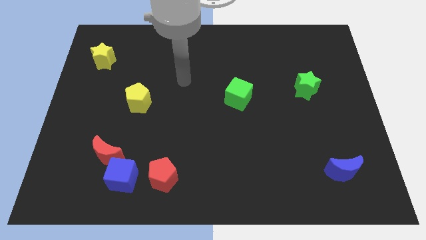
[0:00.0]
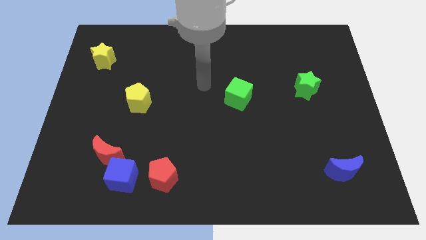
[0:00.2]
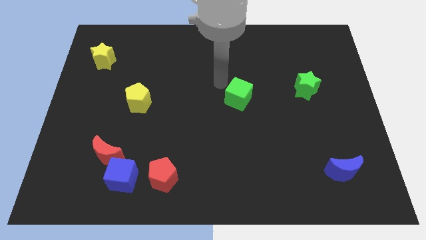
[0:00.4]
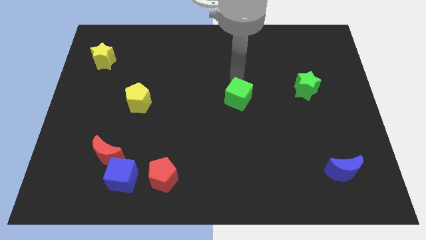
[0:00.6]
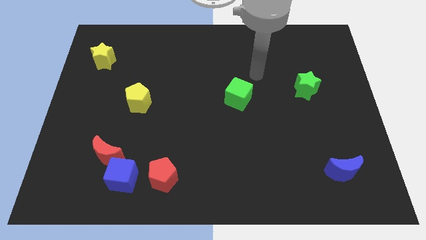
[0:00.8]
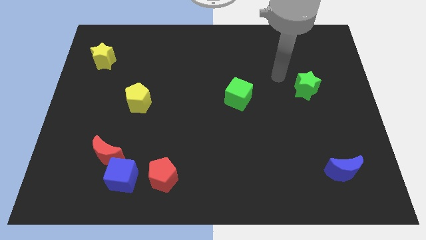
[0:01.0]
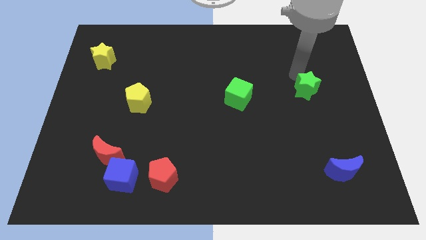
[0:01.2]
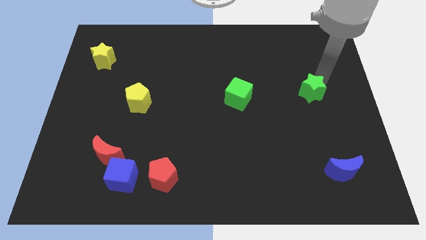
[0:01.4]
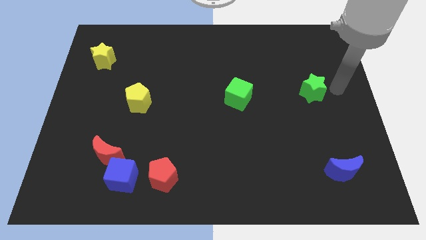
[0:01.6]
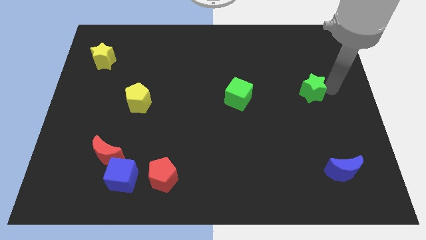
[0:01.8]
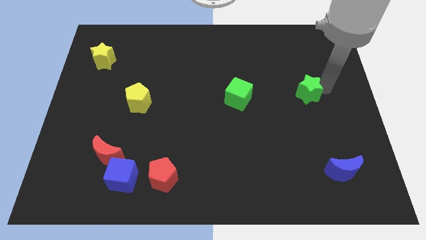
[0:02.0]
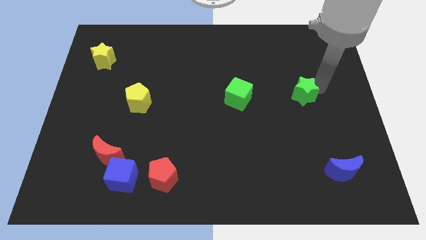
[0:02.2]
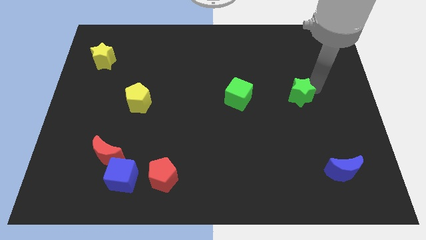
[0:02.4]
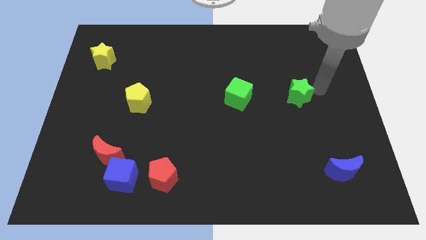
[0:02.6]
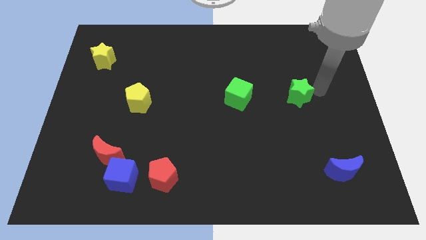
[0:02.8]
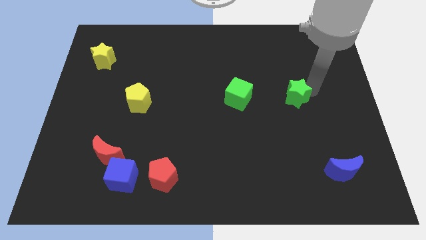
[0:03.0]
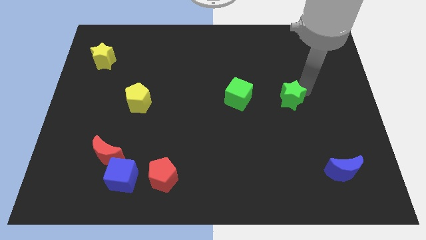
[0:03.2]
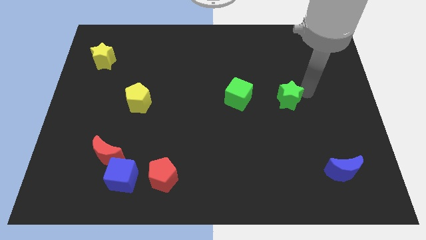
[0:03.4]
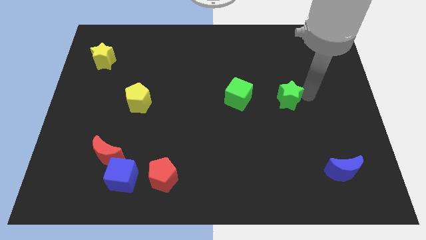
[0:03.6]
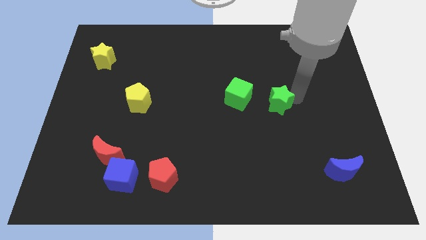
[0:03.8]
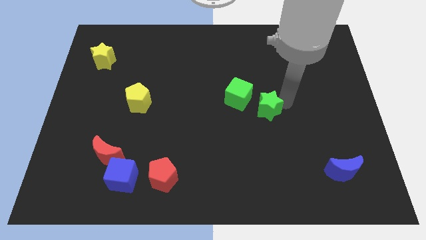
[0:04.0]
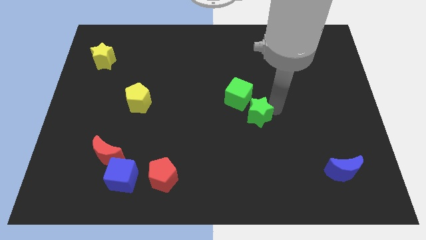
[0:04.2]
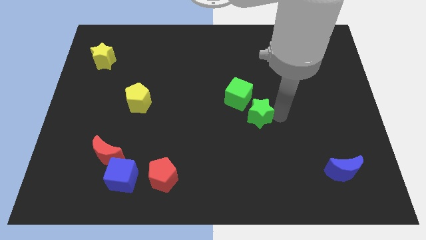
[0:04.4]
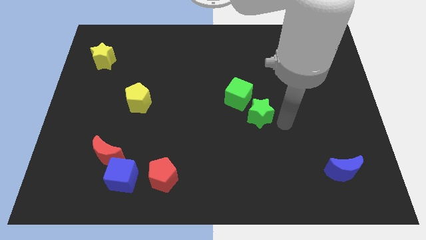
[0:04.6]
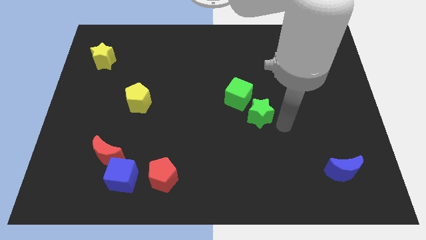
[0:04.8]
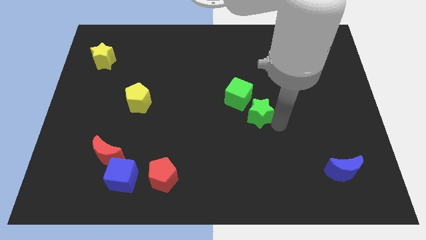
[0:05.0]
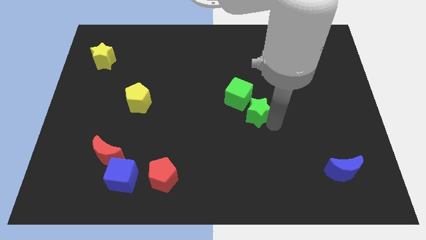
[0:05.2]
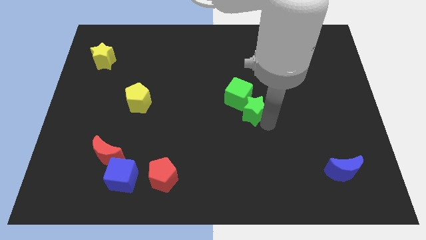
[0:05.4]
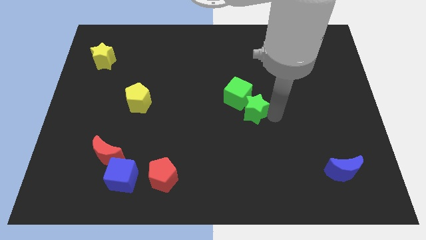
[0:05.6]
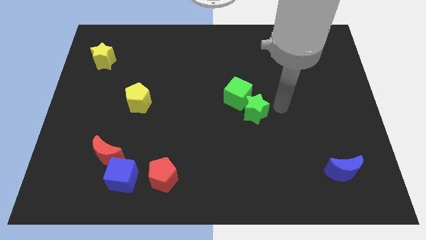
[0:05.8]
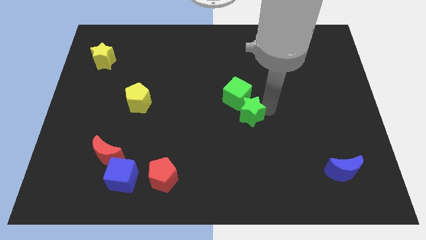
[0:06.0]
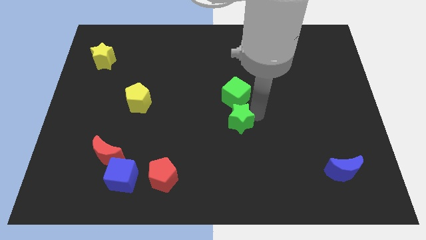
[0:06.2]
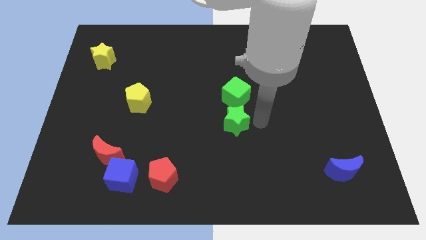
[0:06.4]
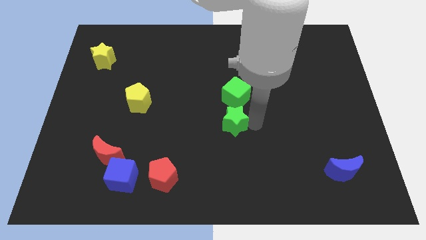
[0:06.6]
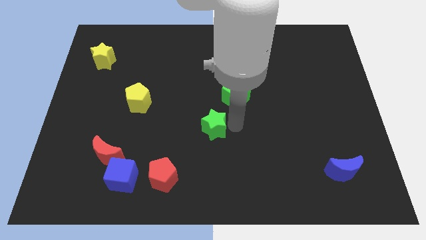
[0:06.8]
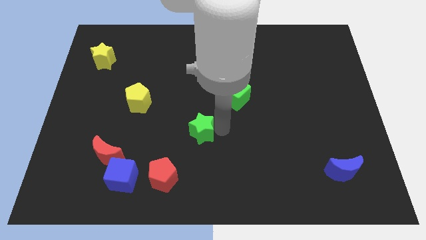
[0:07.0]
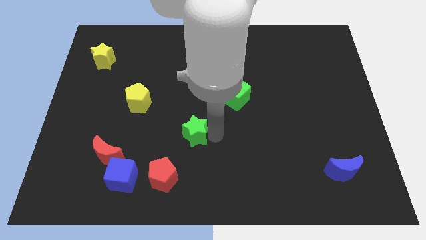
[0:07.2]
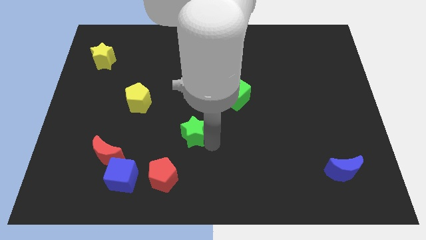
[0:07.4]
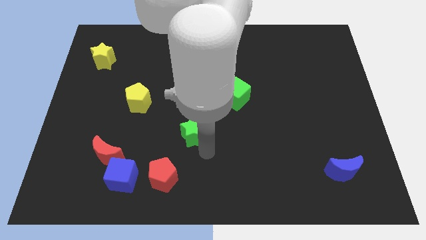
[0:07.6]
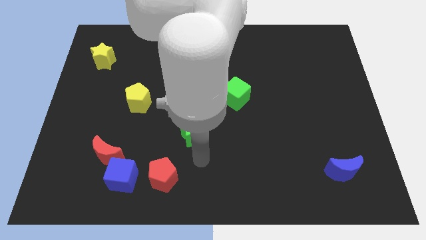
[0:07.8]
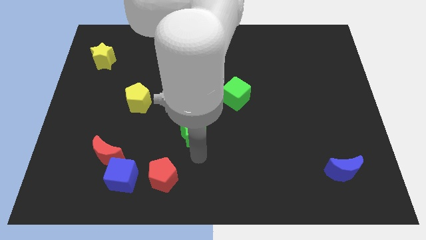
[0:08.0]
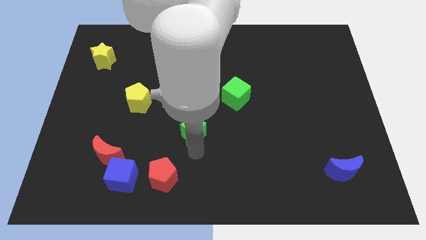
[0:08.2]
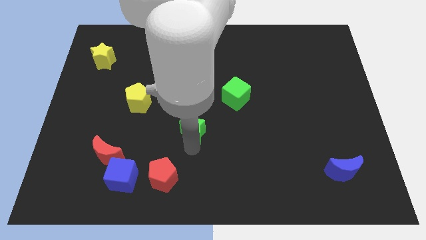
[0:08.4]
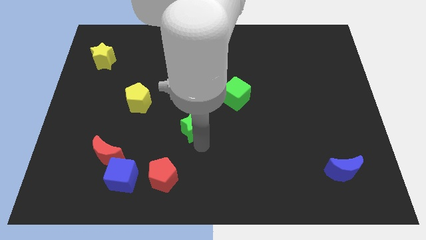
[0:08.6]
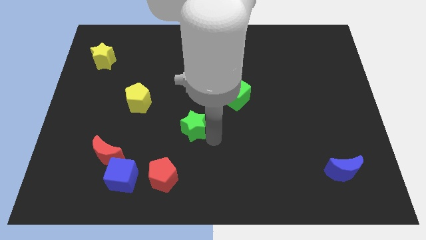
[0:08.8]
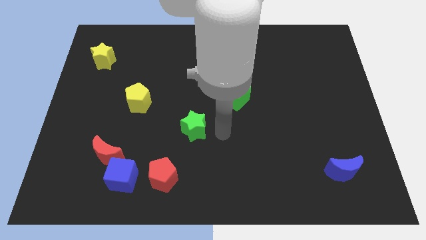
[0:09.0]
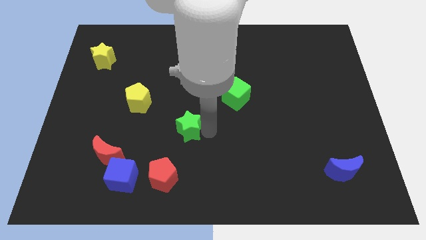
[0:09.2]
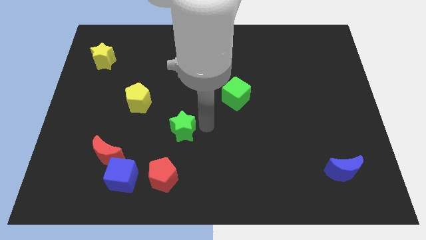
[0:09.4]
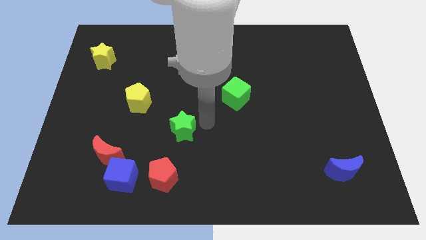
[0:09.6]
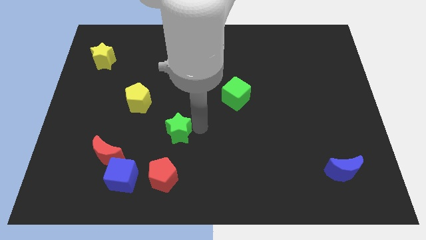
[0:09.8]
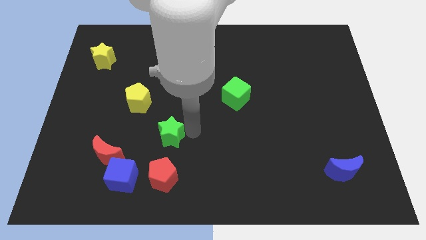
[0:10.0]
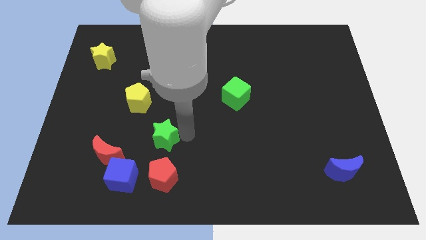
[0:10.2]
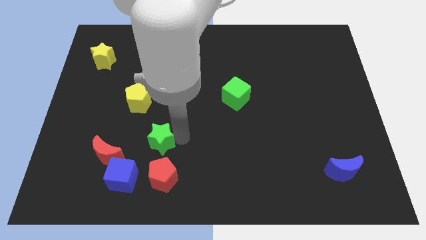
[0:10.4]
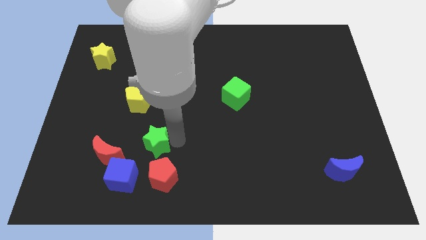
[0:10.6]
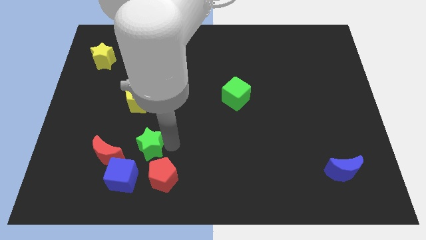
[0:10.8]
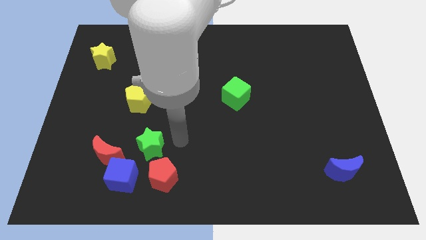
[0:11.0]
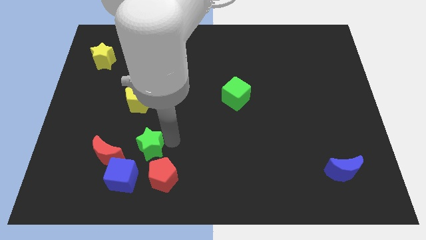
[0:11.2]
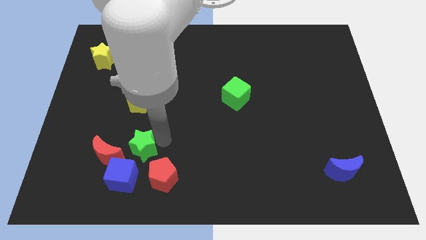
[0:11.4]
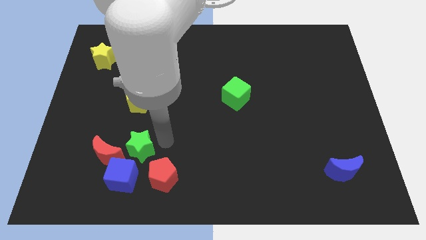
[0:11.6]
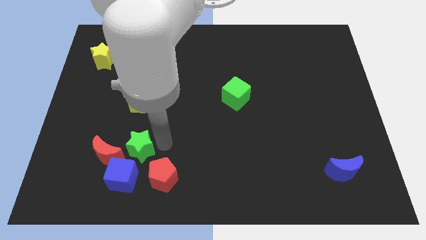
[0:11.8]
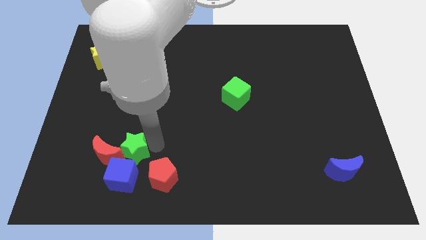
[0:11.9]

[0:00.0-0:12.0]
slide the green star to the red moon

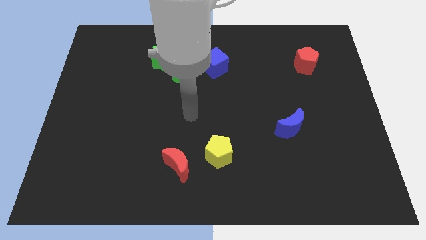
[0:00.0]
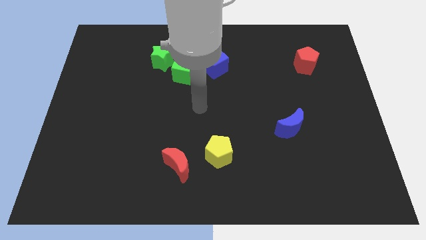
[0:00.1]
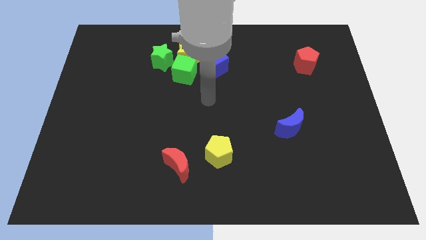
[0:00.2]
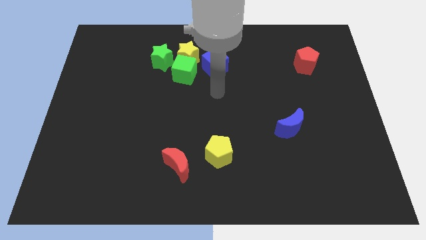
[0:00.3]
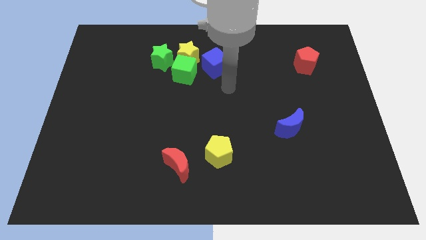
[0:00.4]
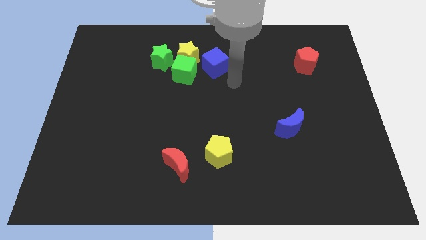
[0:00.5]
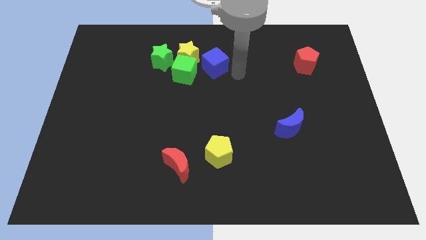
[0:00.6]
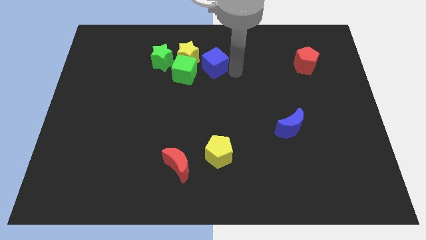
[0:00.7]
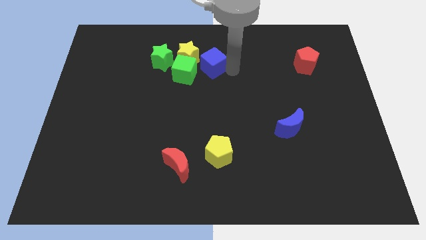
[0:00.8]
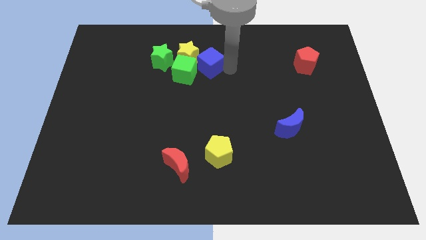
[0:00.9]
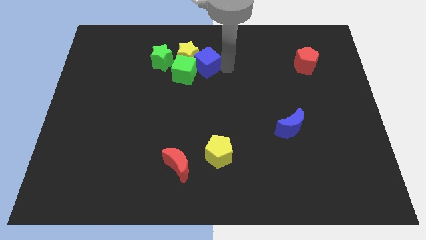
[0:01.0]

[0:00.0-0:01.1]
put the blue cube close to the yellow star
